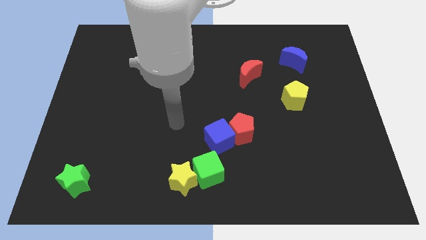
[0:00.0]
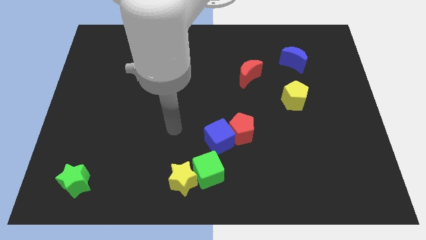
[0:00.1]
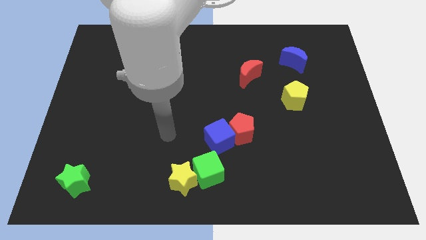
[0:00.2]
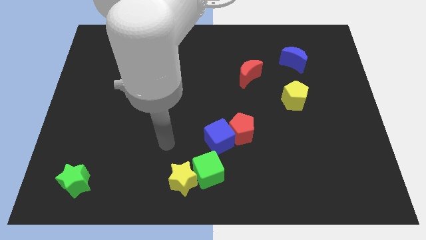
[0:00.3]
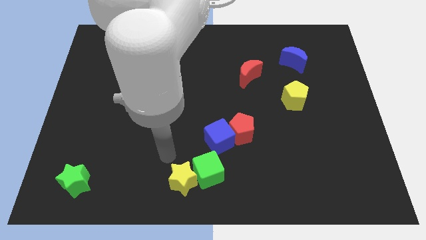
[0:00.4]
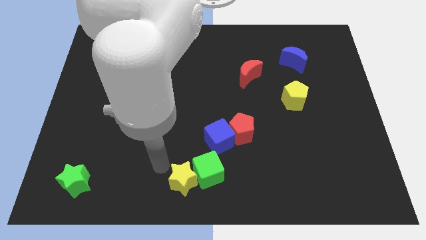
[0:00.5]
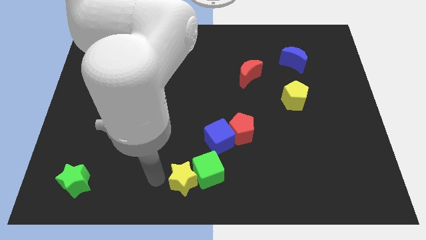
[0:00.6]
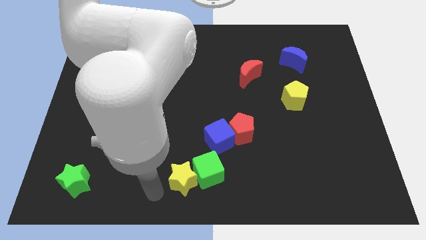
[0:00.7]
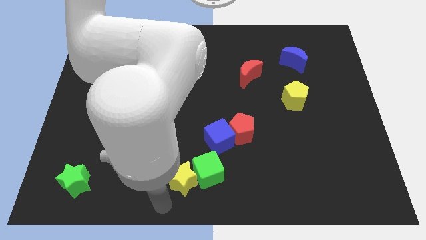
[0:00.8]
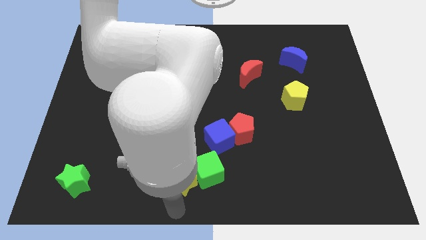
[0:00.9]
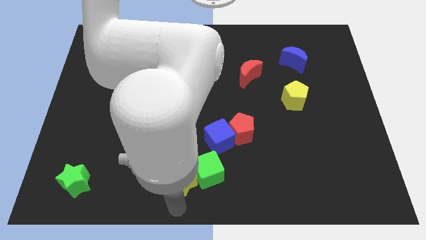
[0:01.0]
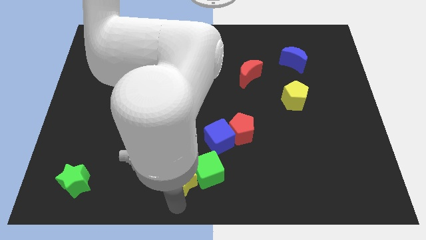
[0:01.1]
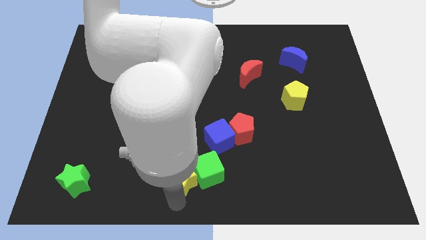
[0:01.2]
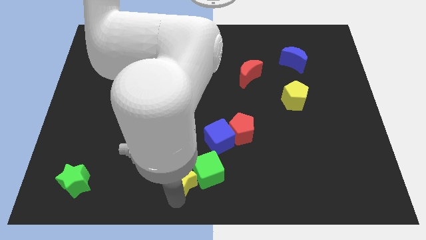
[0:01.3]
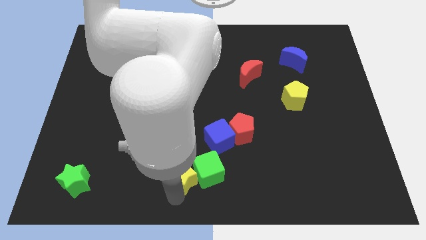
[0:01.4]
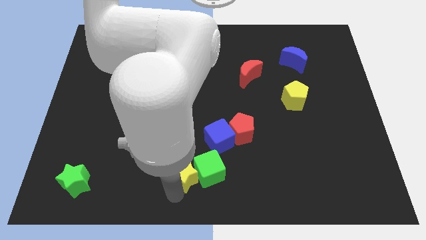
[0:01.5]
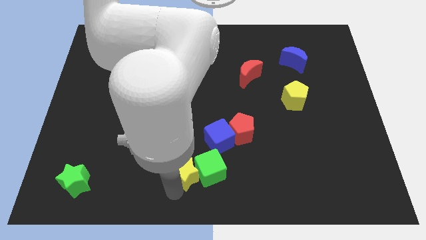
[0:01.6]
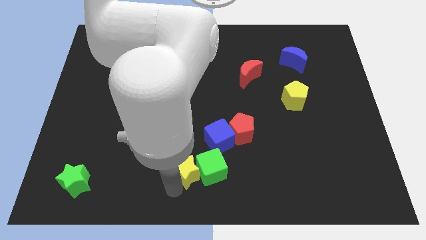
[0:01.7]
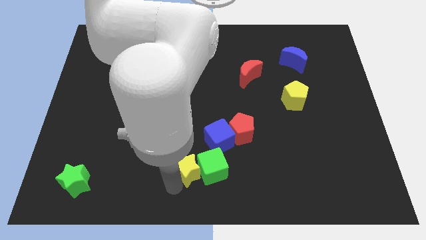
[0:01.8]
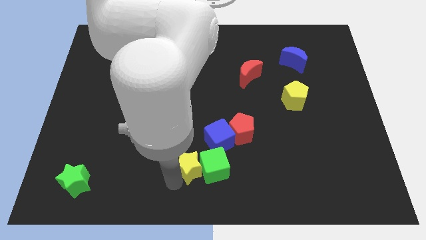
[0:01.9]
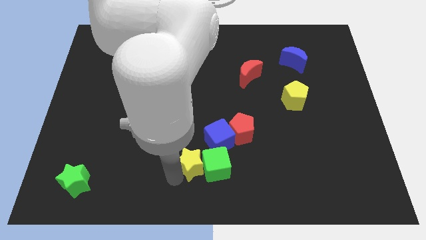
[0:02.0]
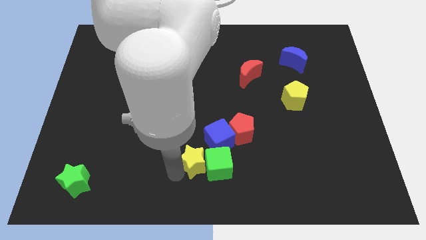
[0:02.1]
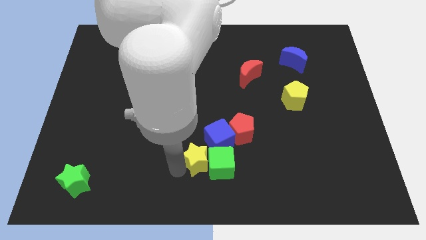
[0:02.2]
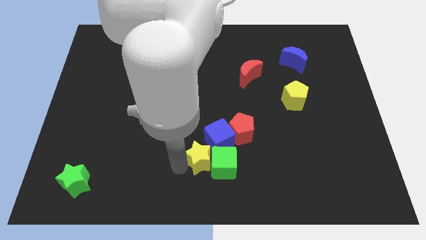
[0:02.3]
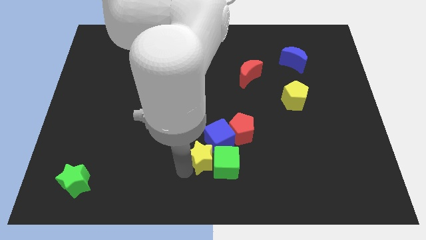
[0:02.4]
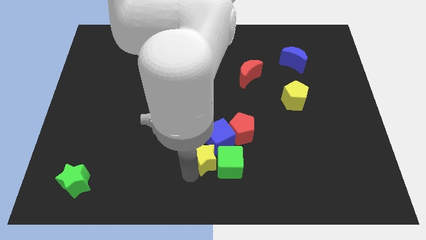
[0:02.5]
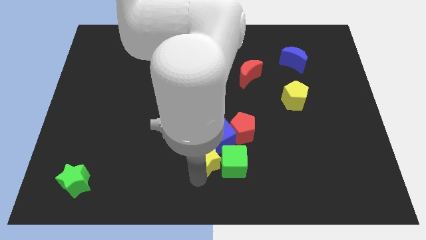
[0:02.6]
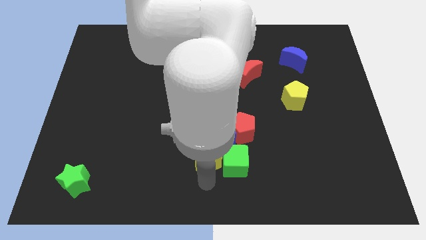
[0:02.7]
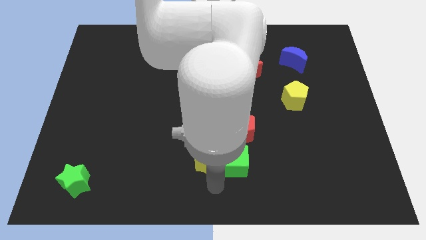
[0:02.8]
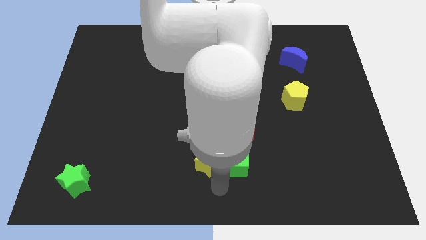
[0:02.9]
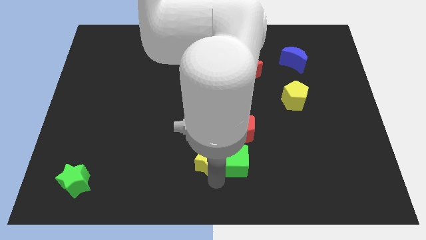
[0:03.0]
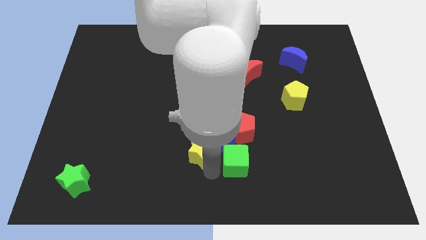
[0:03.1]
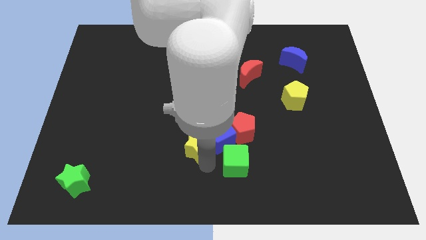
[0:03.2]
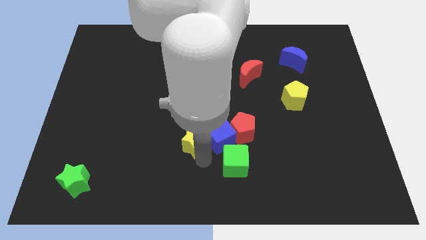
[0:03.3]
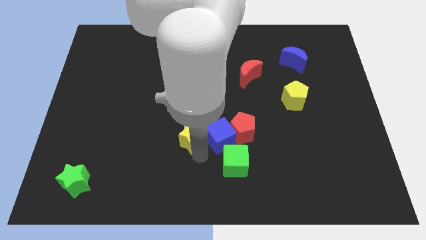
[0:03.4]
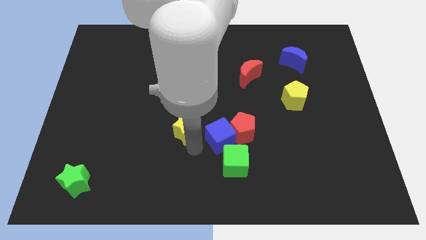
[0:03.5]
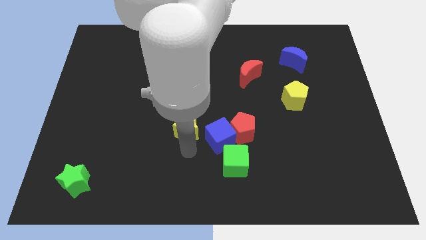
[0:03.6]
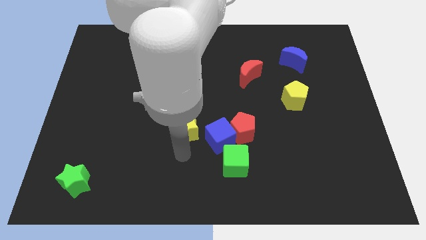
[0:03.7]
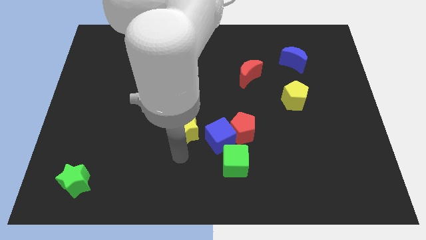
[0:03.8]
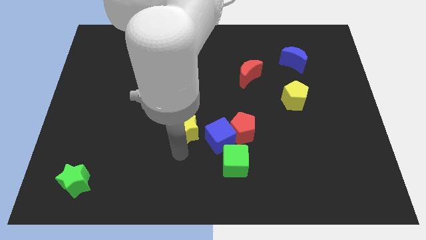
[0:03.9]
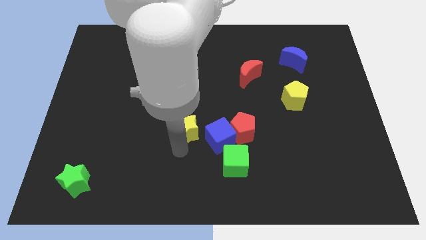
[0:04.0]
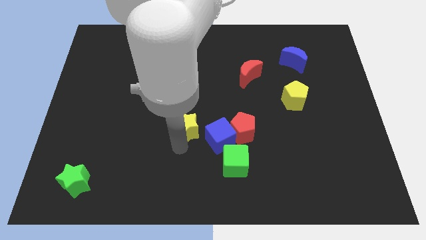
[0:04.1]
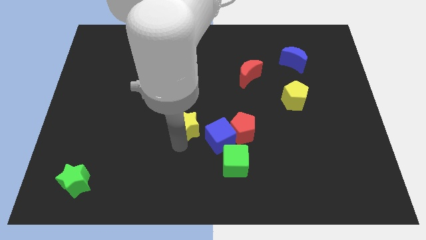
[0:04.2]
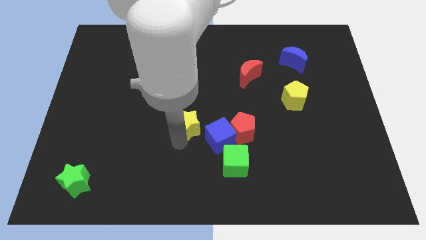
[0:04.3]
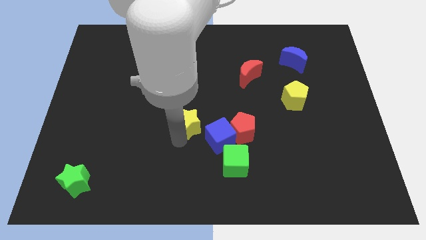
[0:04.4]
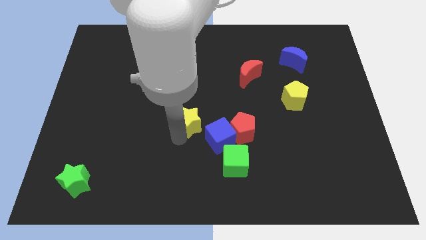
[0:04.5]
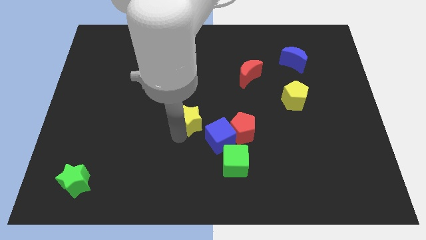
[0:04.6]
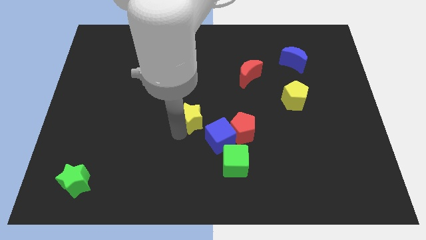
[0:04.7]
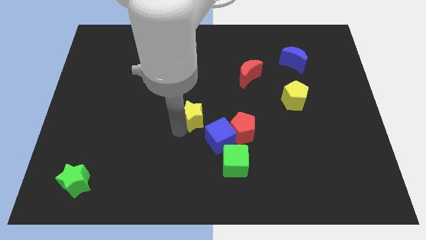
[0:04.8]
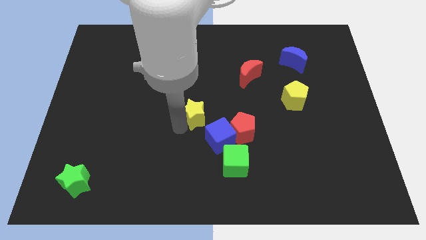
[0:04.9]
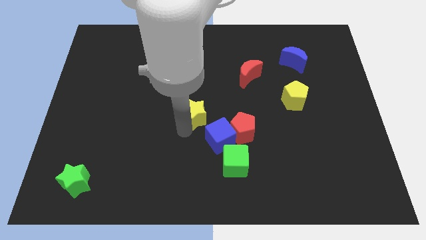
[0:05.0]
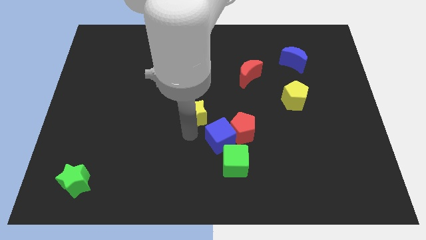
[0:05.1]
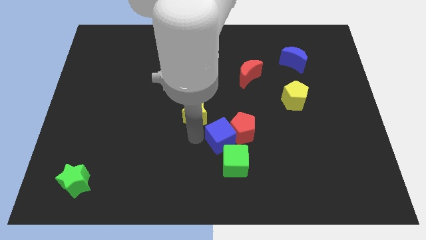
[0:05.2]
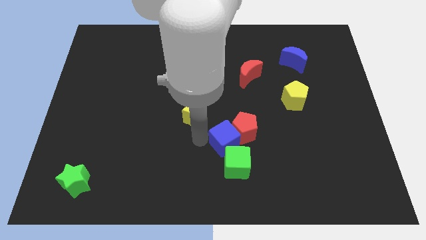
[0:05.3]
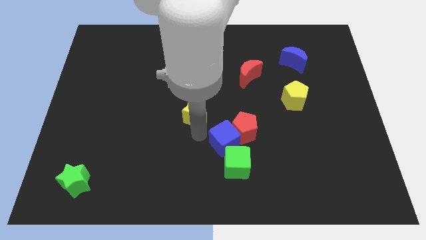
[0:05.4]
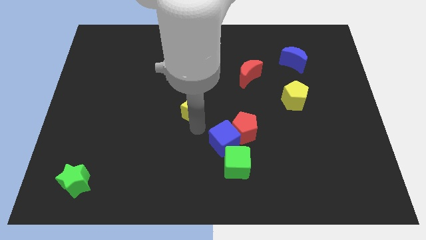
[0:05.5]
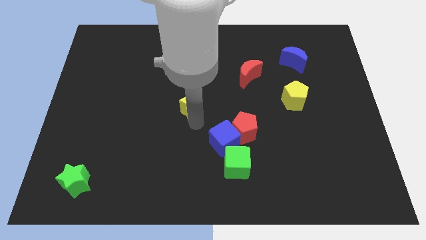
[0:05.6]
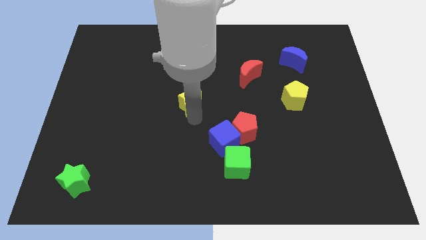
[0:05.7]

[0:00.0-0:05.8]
push the yellow star upwards

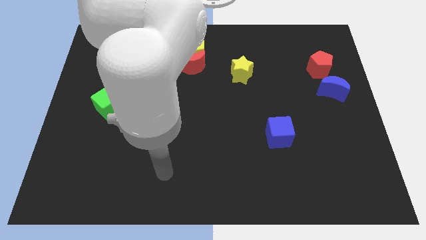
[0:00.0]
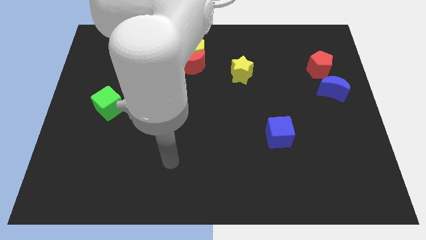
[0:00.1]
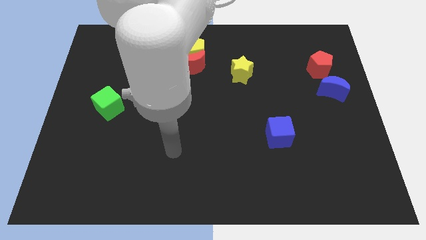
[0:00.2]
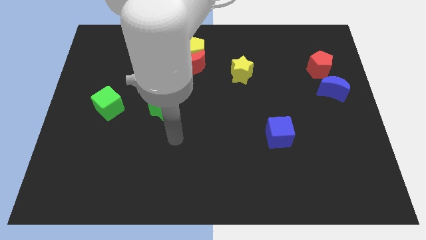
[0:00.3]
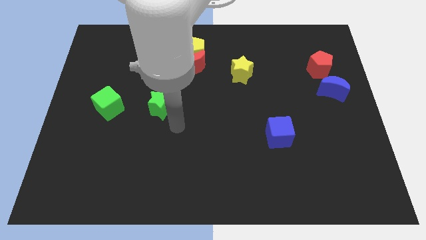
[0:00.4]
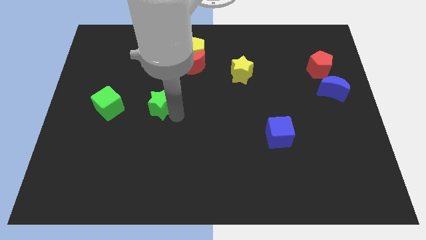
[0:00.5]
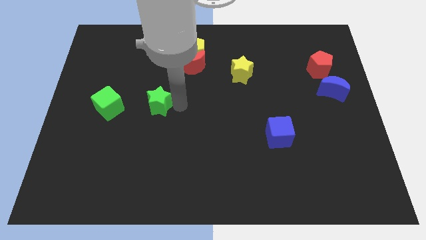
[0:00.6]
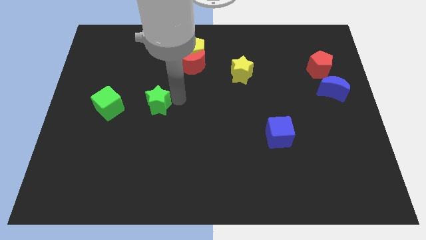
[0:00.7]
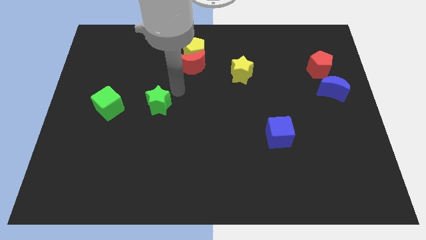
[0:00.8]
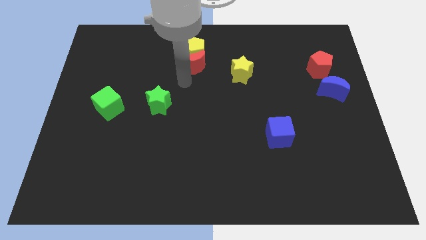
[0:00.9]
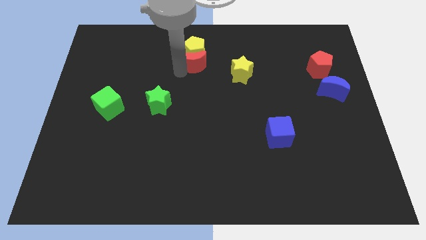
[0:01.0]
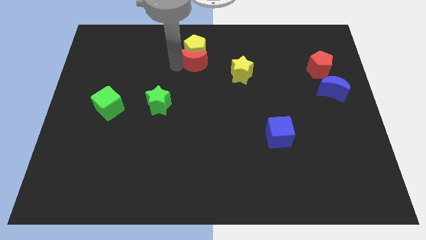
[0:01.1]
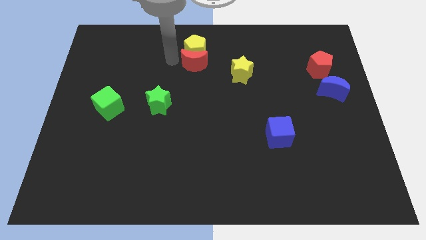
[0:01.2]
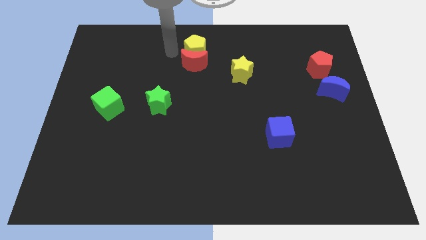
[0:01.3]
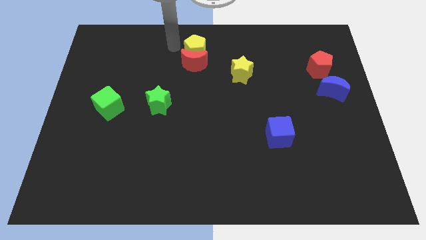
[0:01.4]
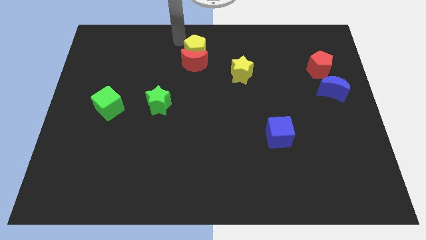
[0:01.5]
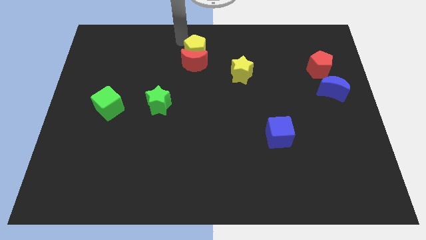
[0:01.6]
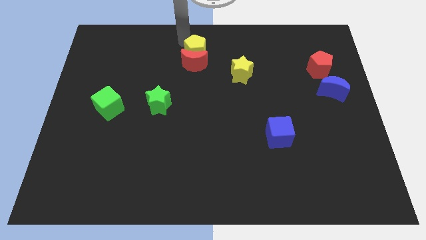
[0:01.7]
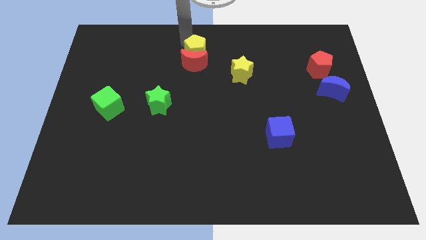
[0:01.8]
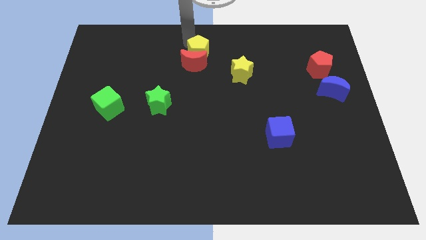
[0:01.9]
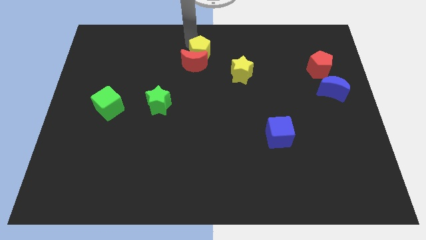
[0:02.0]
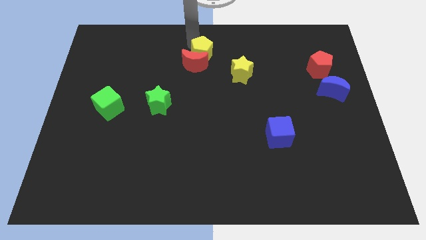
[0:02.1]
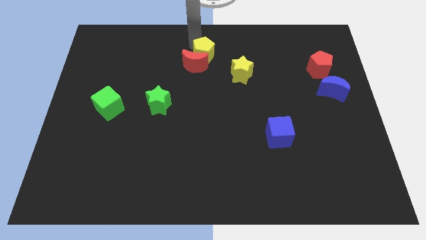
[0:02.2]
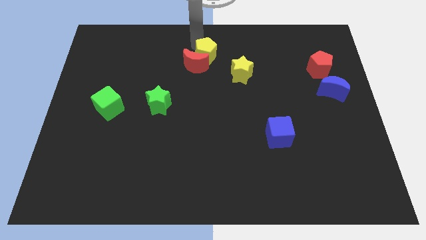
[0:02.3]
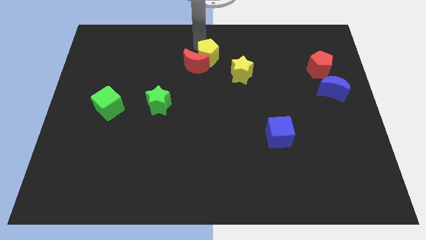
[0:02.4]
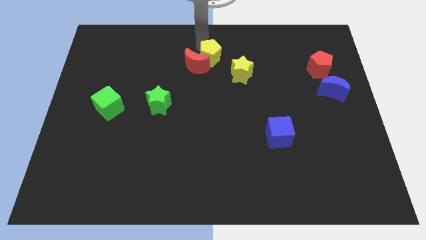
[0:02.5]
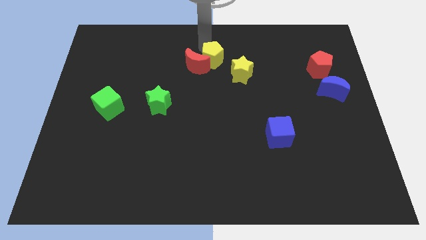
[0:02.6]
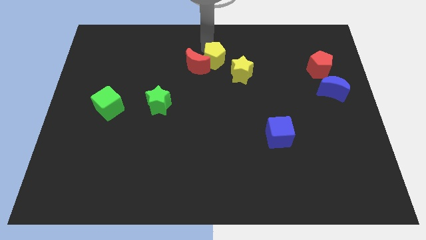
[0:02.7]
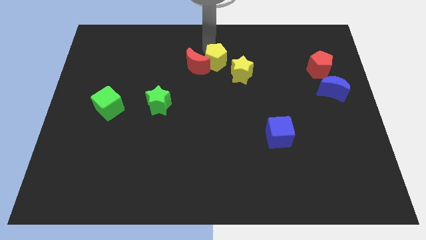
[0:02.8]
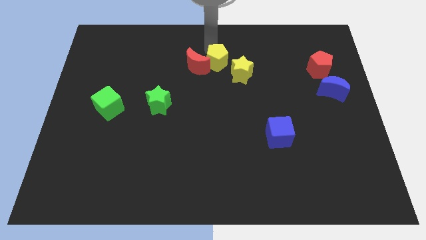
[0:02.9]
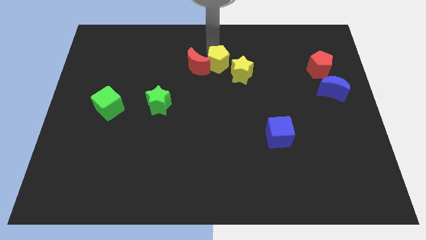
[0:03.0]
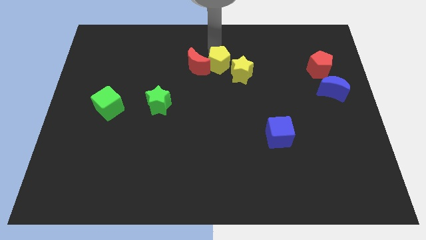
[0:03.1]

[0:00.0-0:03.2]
slightly slide the yellow pentagon down and to the right
